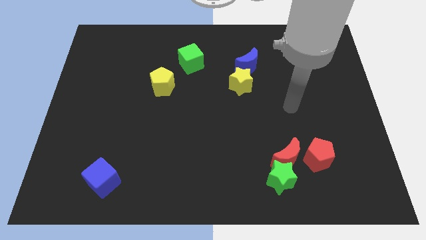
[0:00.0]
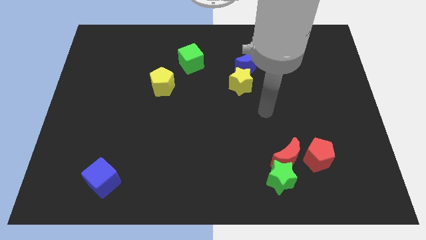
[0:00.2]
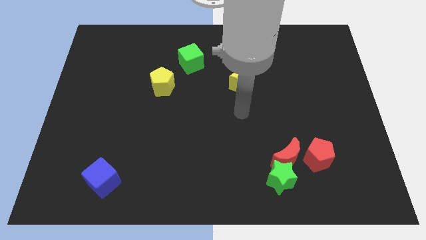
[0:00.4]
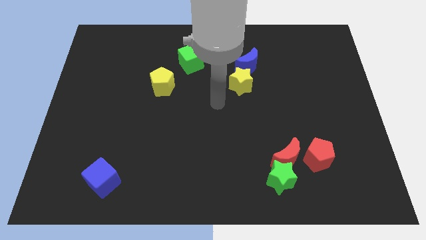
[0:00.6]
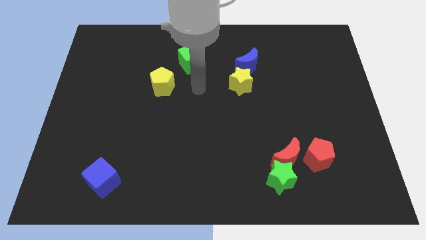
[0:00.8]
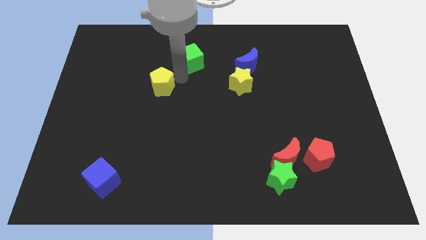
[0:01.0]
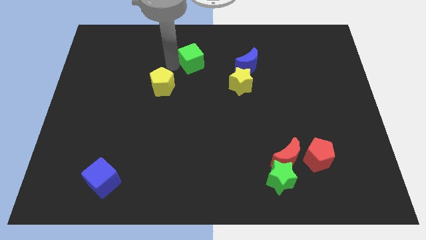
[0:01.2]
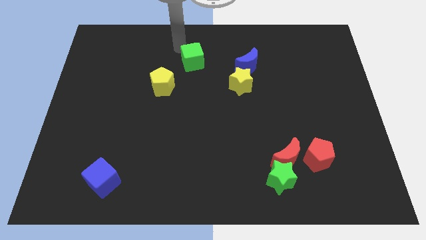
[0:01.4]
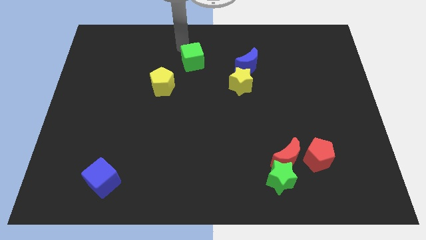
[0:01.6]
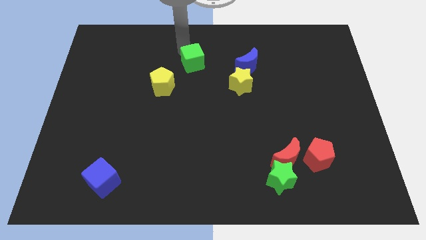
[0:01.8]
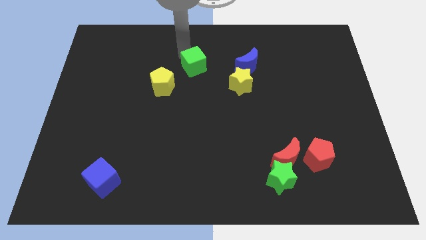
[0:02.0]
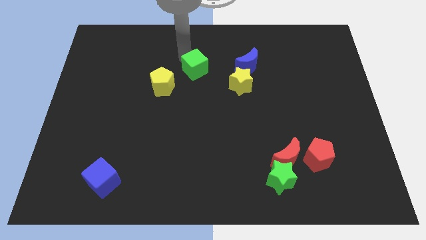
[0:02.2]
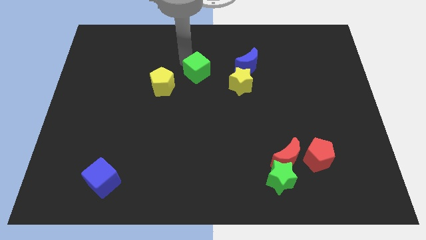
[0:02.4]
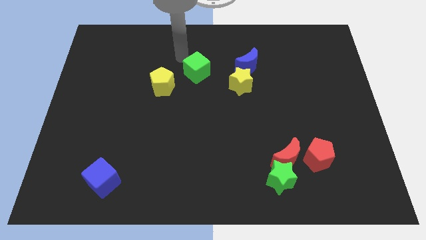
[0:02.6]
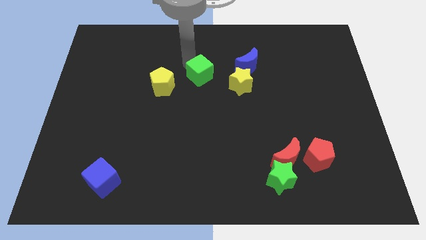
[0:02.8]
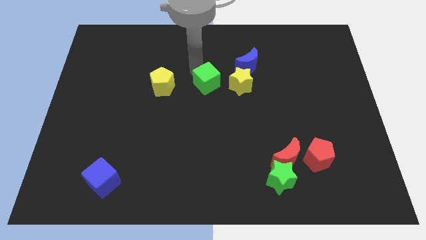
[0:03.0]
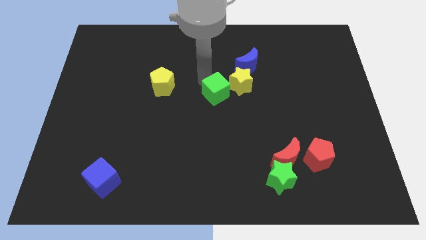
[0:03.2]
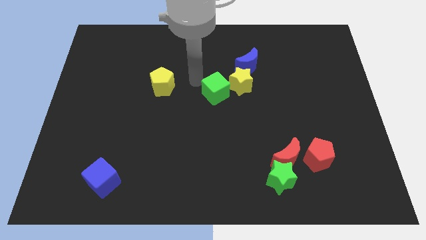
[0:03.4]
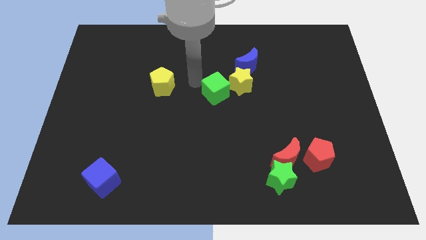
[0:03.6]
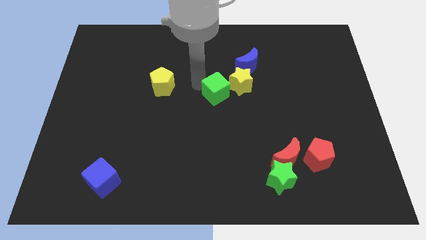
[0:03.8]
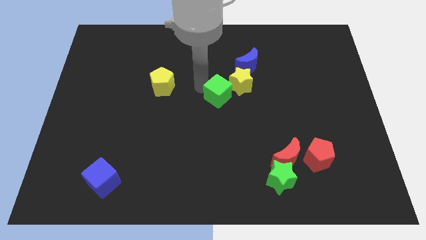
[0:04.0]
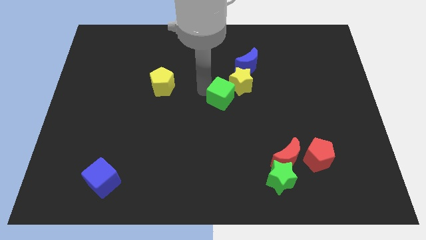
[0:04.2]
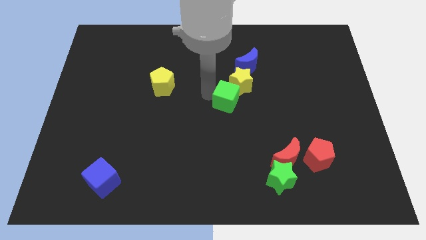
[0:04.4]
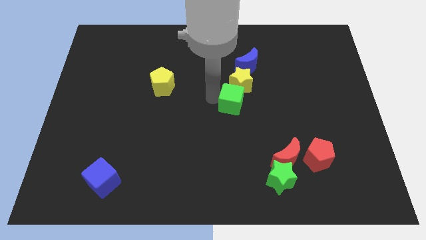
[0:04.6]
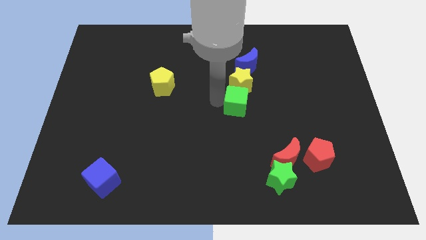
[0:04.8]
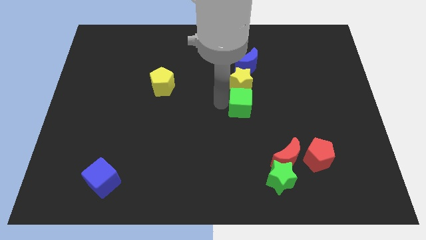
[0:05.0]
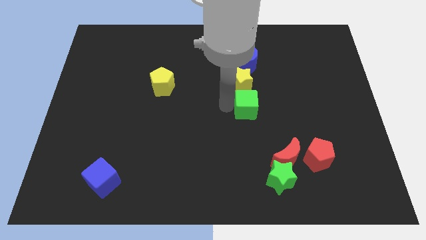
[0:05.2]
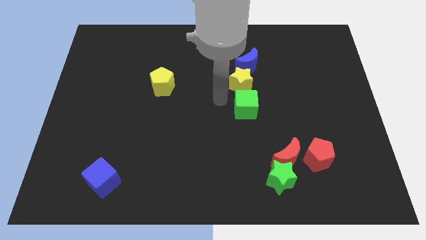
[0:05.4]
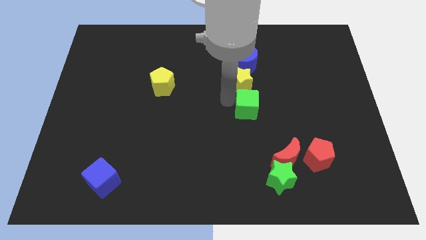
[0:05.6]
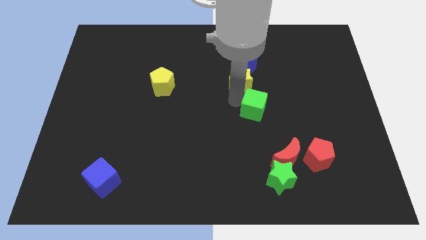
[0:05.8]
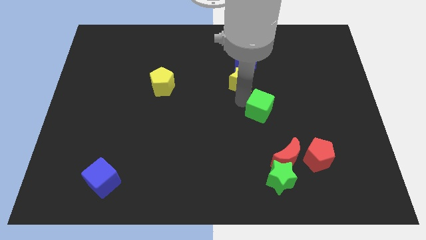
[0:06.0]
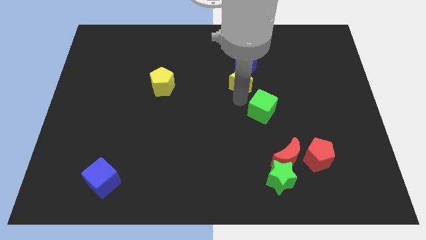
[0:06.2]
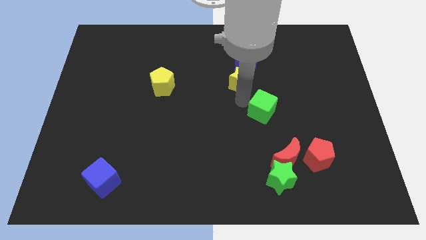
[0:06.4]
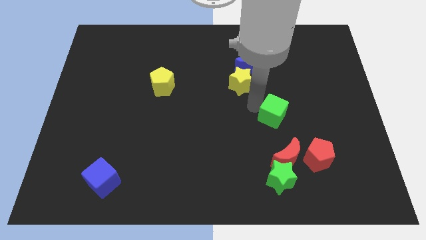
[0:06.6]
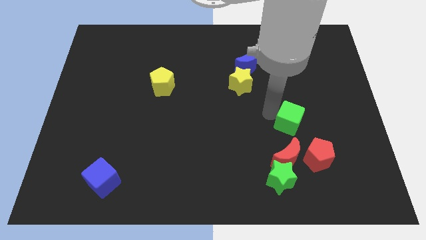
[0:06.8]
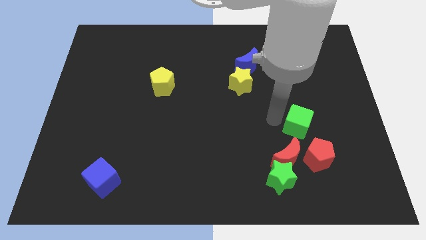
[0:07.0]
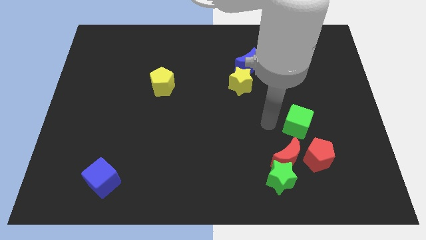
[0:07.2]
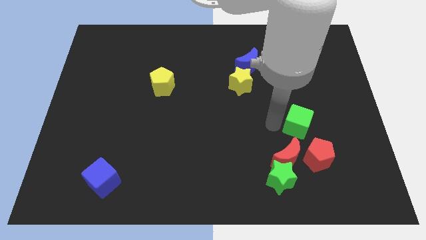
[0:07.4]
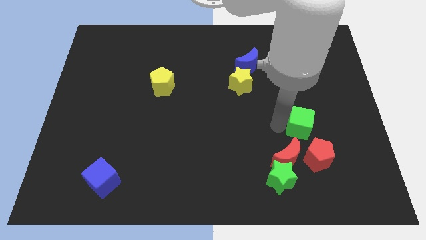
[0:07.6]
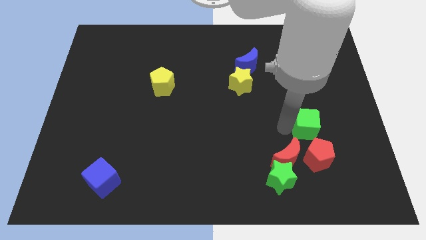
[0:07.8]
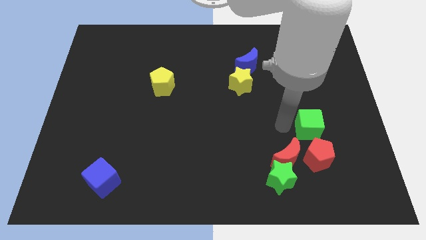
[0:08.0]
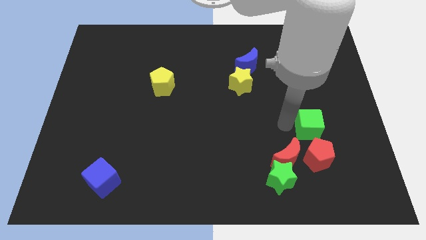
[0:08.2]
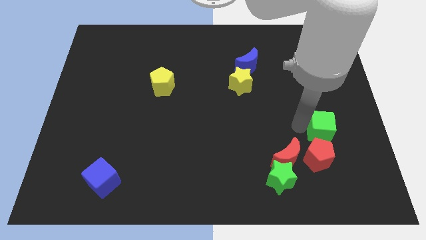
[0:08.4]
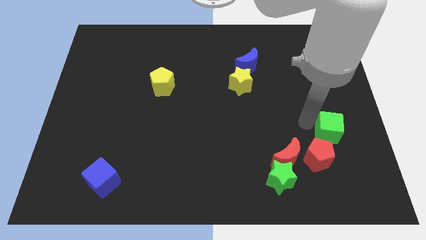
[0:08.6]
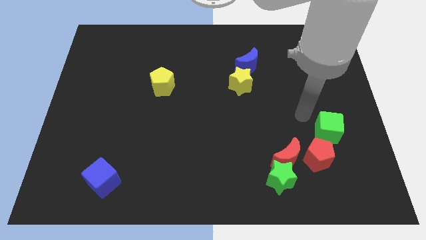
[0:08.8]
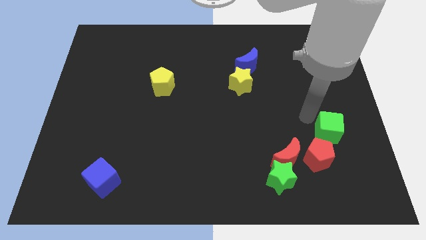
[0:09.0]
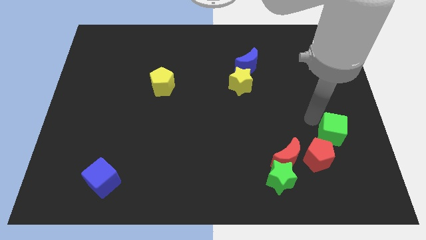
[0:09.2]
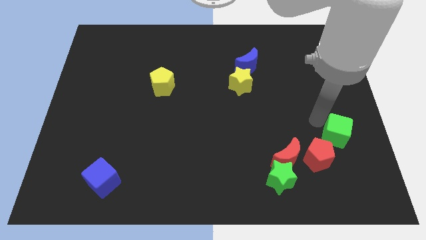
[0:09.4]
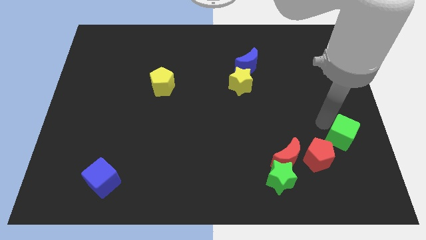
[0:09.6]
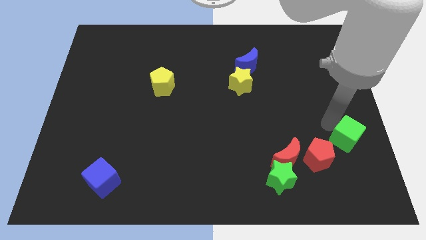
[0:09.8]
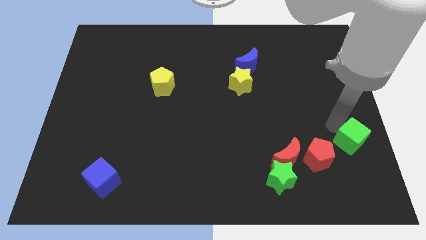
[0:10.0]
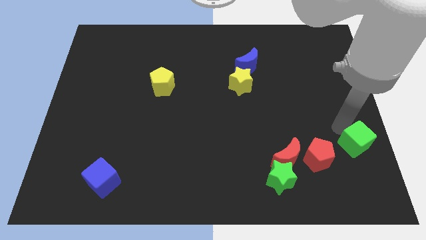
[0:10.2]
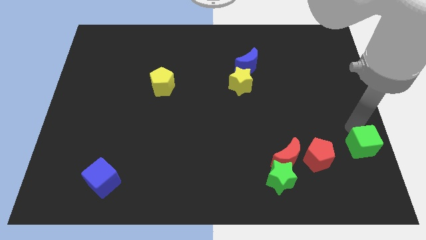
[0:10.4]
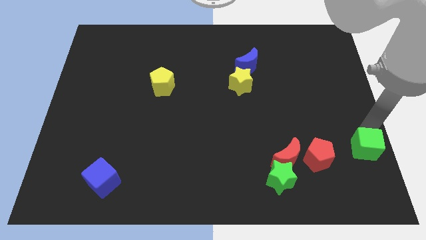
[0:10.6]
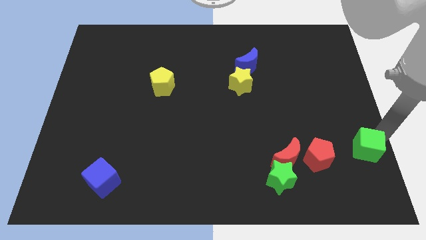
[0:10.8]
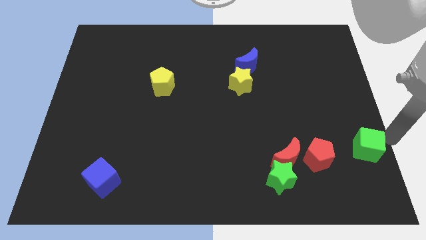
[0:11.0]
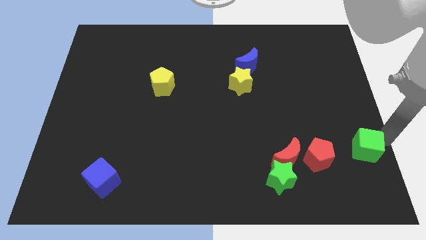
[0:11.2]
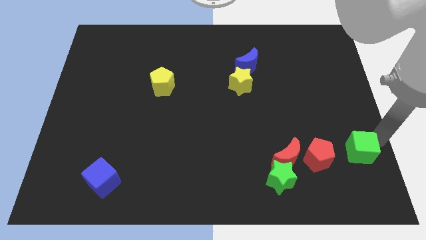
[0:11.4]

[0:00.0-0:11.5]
move the green cube right of the red moon

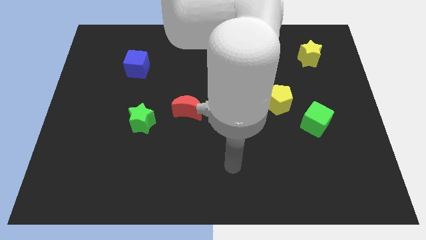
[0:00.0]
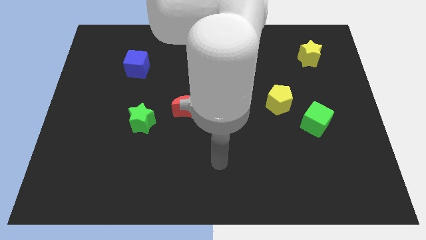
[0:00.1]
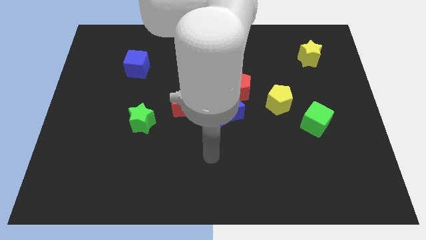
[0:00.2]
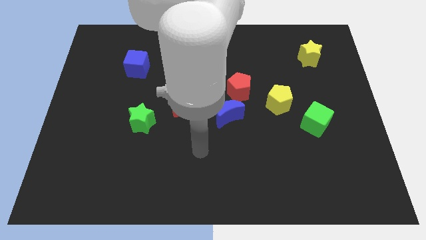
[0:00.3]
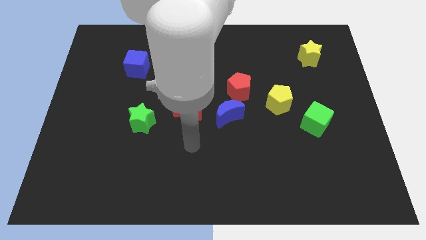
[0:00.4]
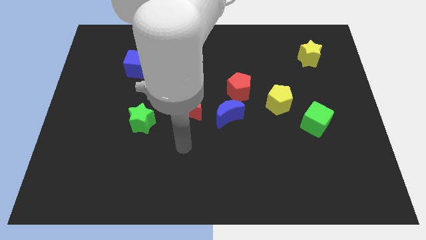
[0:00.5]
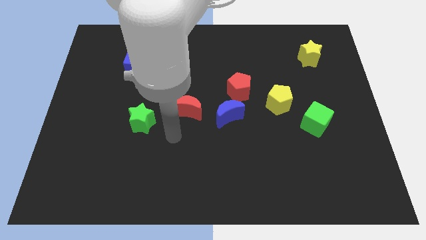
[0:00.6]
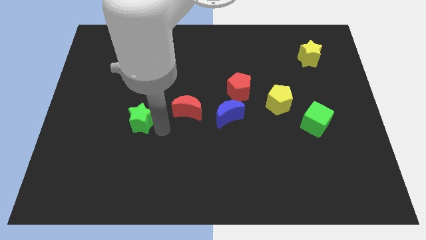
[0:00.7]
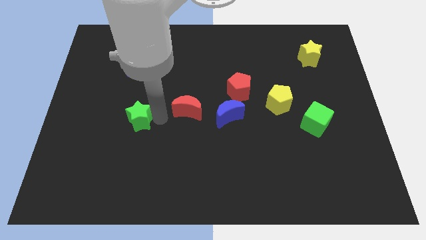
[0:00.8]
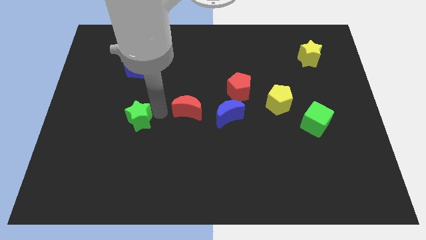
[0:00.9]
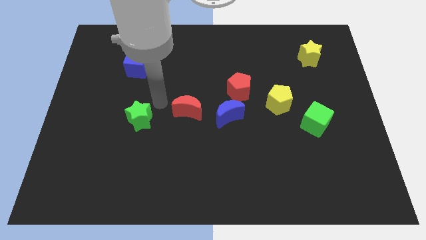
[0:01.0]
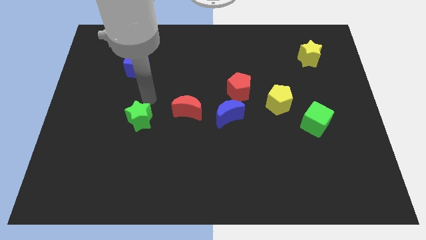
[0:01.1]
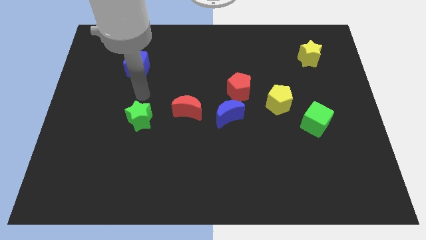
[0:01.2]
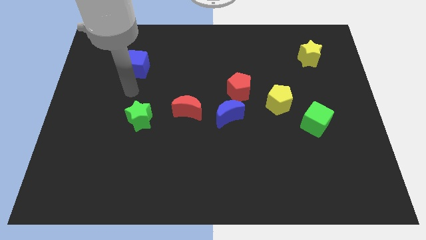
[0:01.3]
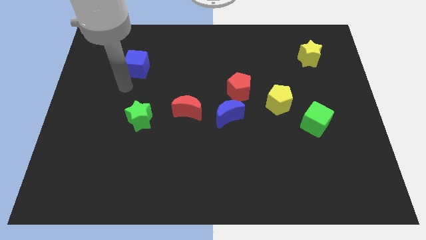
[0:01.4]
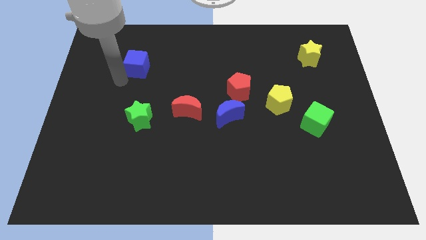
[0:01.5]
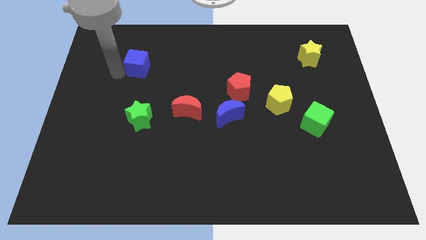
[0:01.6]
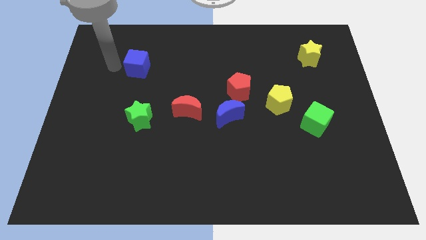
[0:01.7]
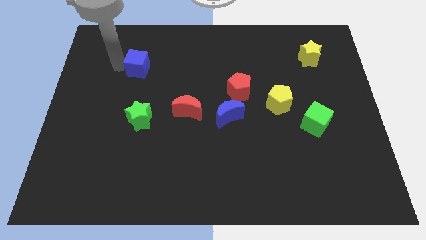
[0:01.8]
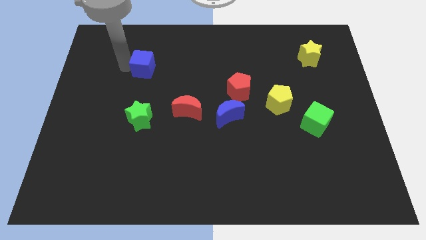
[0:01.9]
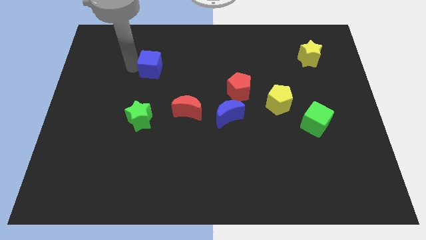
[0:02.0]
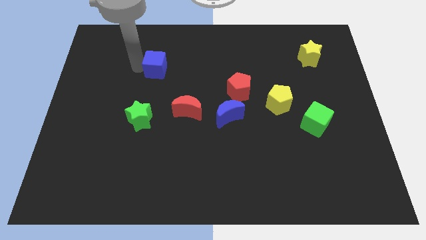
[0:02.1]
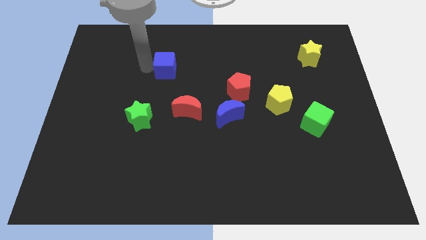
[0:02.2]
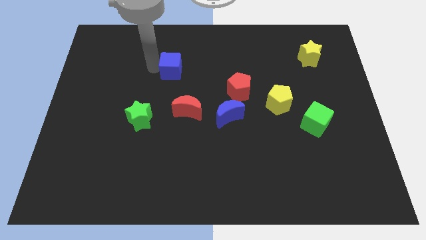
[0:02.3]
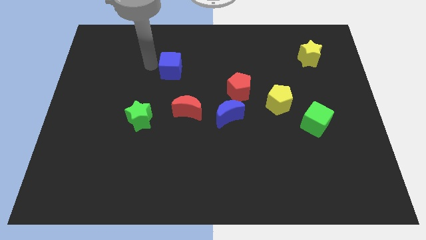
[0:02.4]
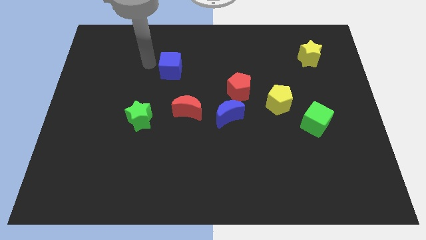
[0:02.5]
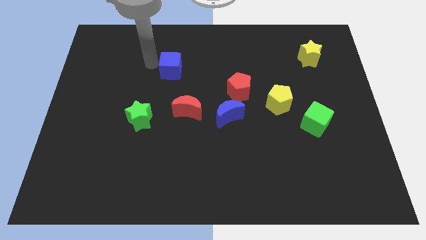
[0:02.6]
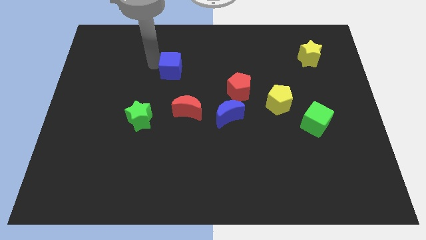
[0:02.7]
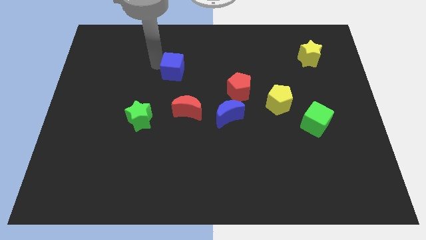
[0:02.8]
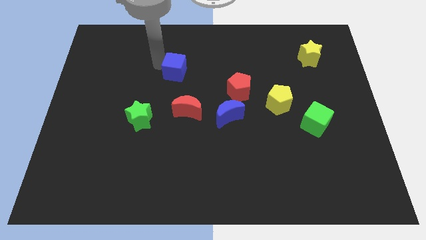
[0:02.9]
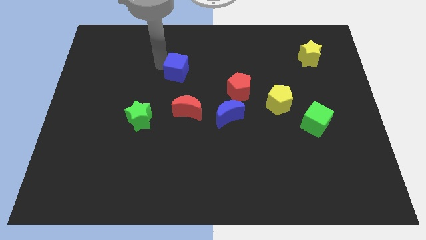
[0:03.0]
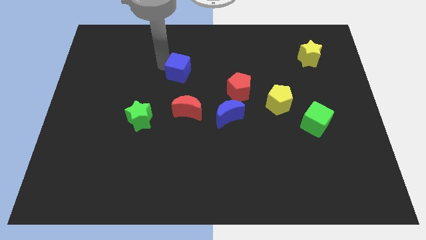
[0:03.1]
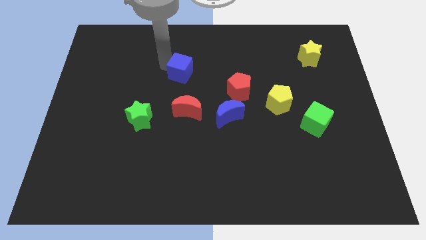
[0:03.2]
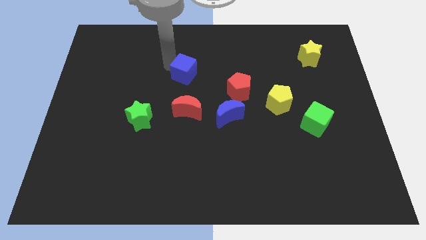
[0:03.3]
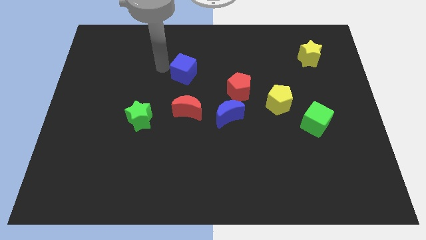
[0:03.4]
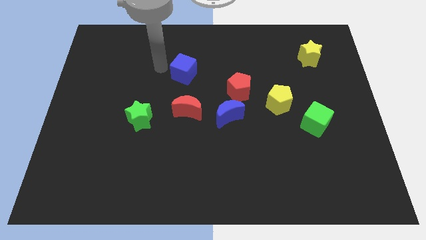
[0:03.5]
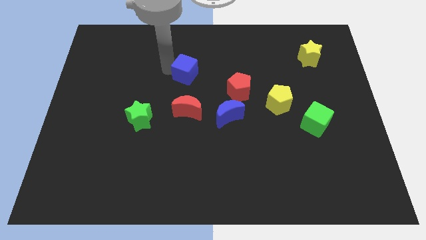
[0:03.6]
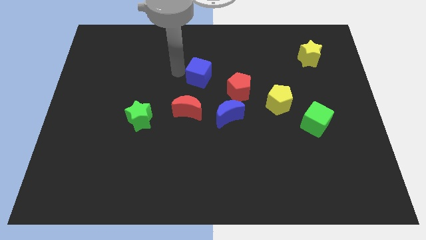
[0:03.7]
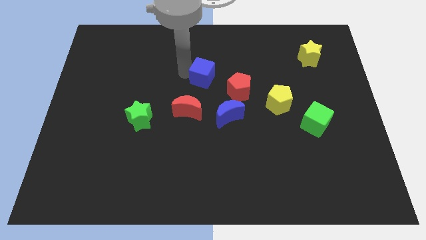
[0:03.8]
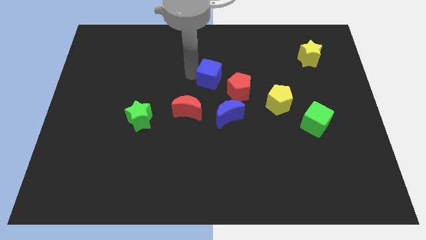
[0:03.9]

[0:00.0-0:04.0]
push the blue cube above the blue moon
